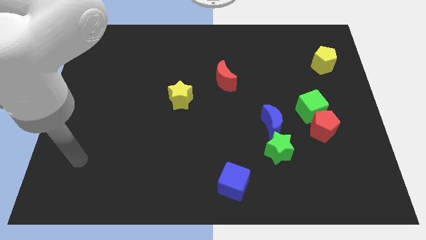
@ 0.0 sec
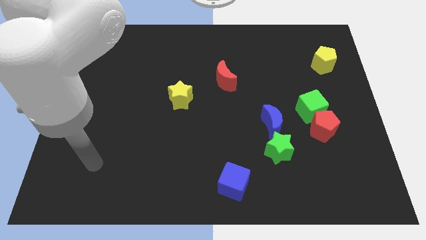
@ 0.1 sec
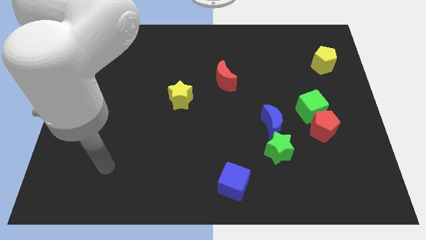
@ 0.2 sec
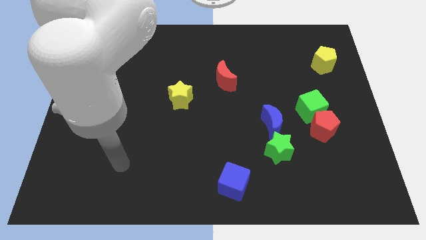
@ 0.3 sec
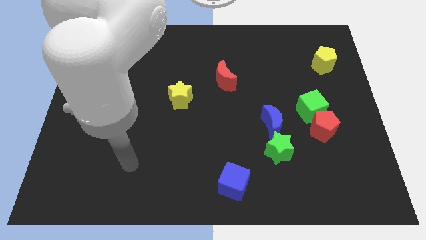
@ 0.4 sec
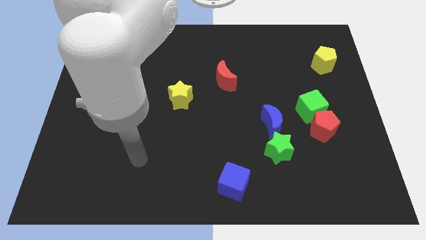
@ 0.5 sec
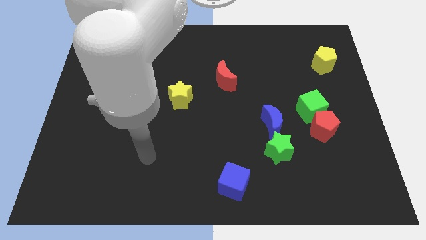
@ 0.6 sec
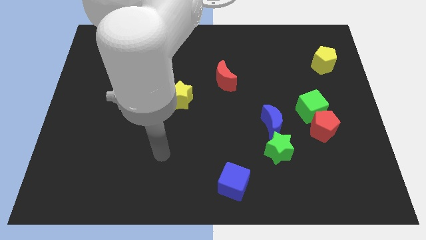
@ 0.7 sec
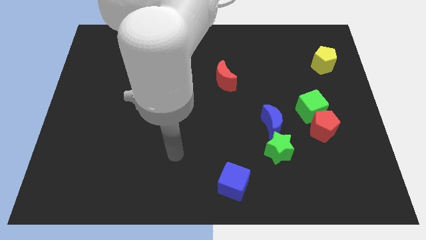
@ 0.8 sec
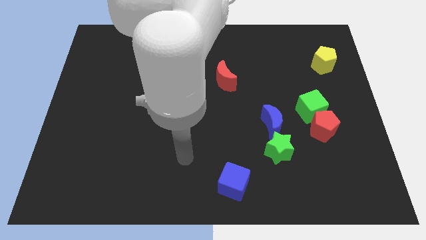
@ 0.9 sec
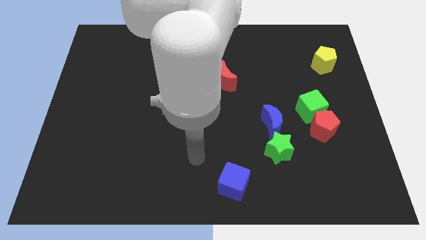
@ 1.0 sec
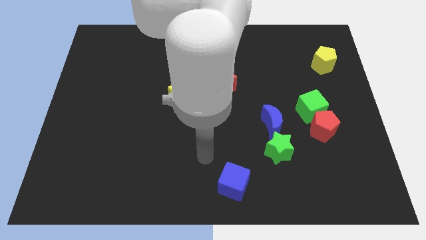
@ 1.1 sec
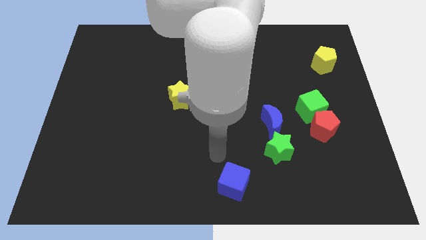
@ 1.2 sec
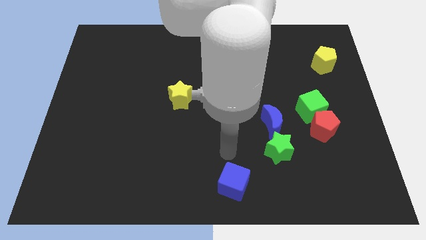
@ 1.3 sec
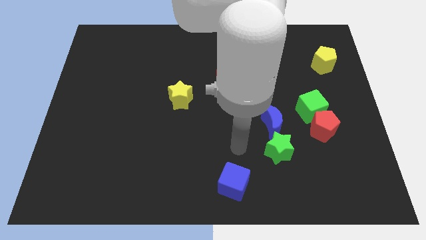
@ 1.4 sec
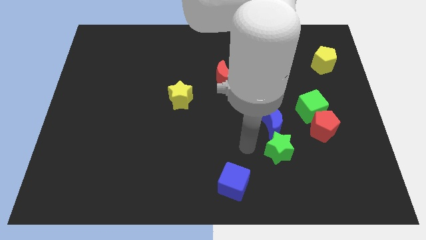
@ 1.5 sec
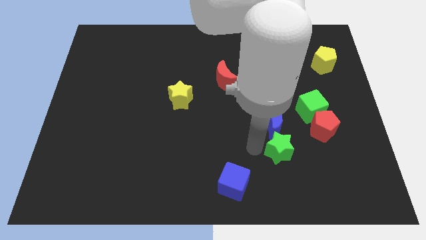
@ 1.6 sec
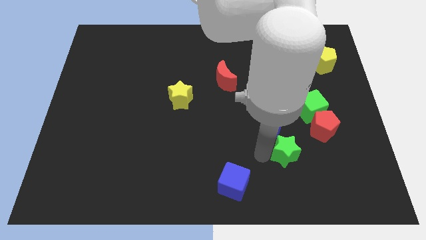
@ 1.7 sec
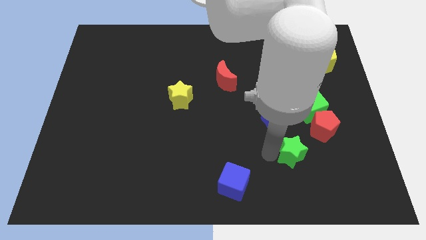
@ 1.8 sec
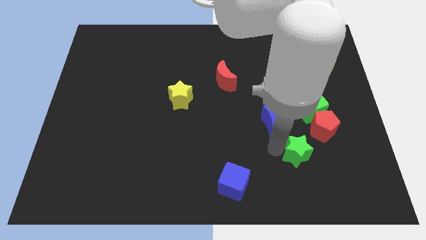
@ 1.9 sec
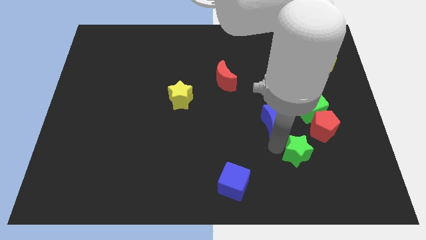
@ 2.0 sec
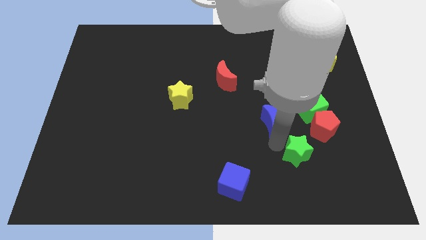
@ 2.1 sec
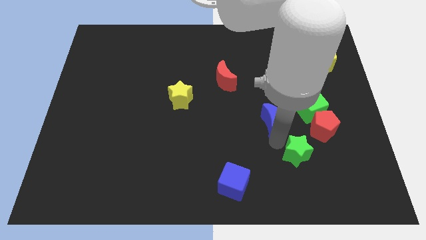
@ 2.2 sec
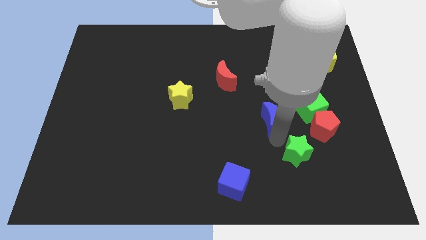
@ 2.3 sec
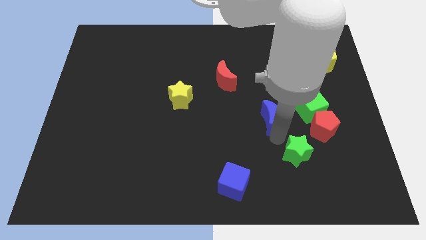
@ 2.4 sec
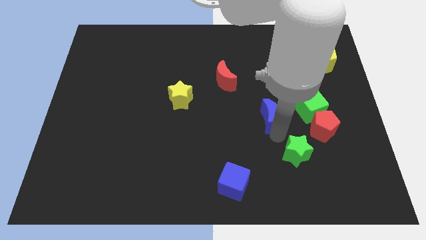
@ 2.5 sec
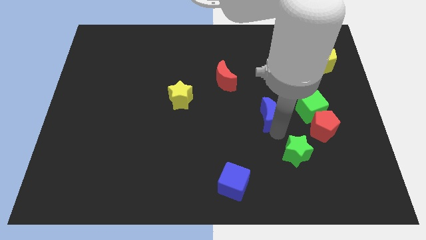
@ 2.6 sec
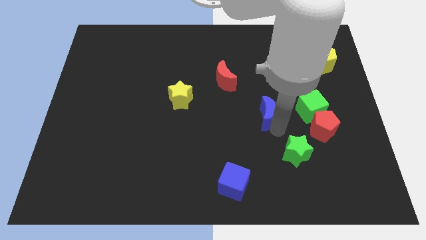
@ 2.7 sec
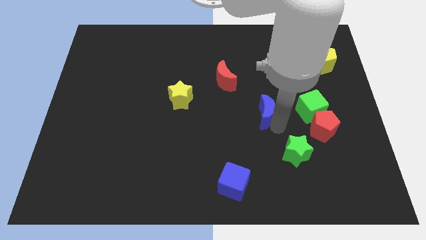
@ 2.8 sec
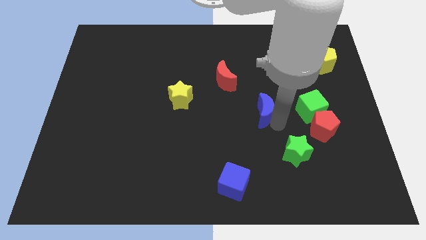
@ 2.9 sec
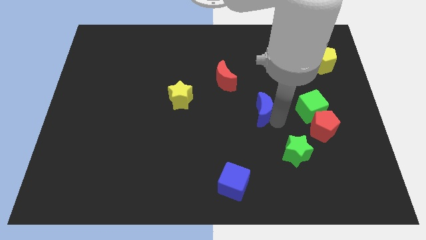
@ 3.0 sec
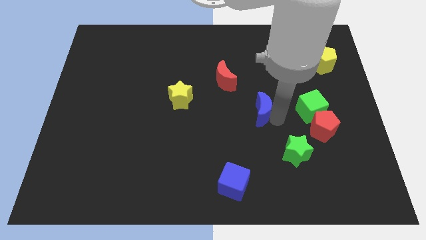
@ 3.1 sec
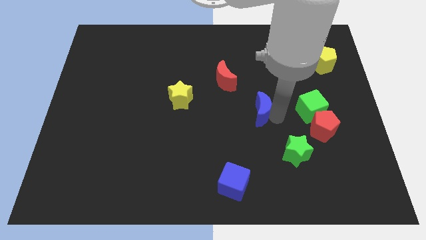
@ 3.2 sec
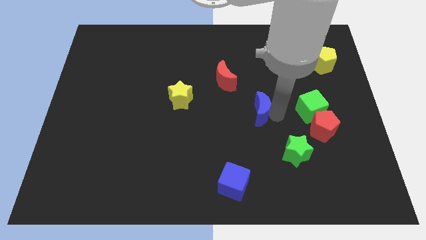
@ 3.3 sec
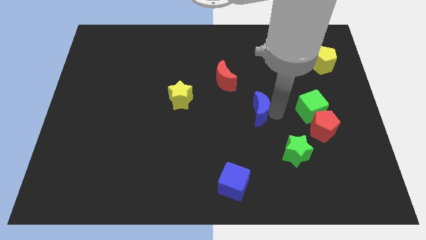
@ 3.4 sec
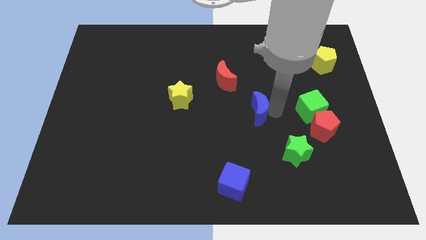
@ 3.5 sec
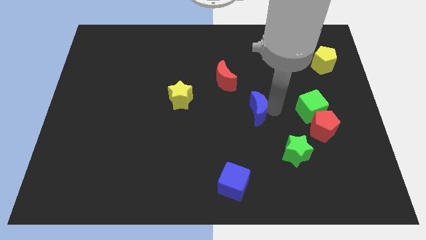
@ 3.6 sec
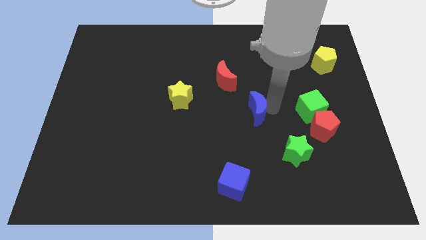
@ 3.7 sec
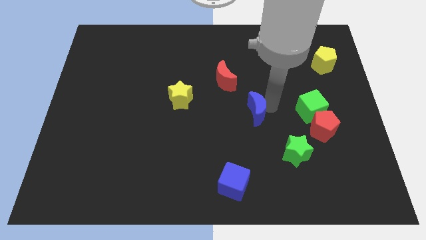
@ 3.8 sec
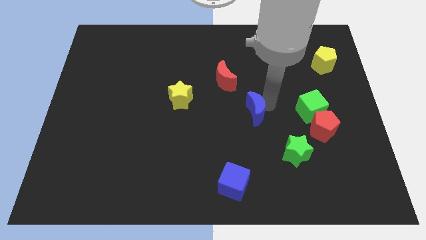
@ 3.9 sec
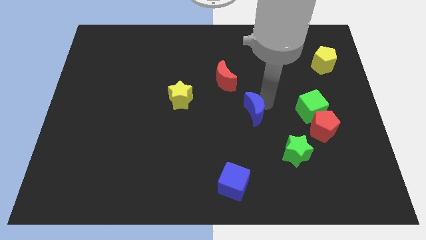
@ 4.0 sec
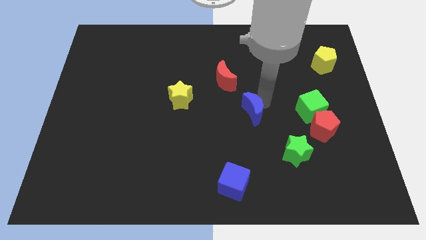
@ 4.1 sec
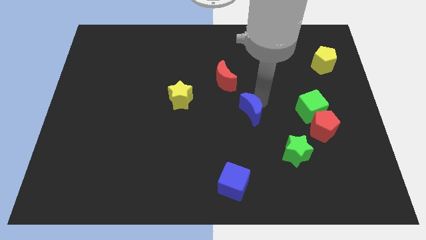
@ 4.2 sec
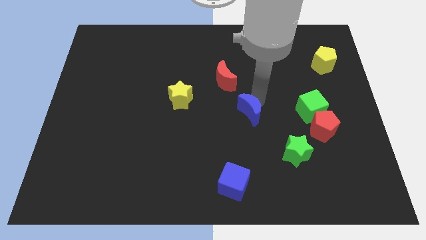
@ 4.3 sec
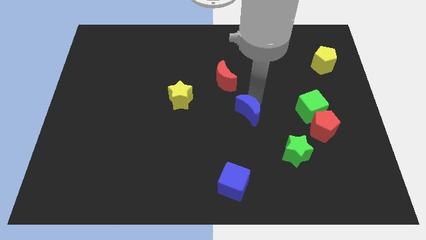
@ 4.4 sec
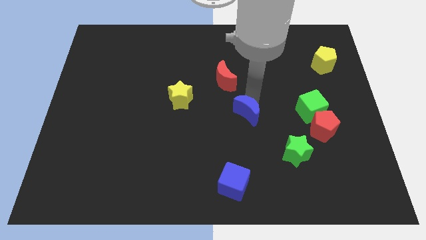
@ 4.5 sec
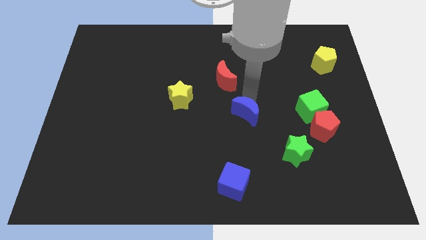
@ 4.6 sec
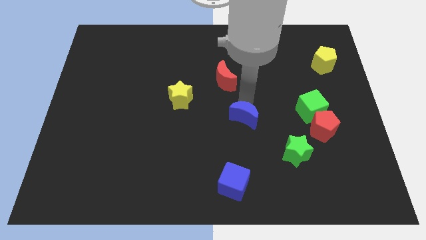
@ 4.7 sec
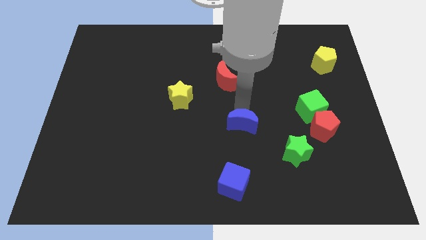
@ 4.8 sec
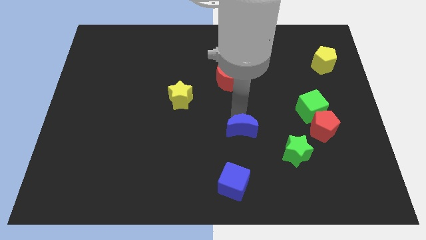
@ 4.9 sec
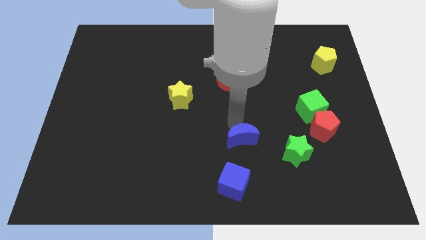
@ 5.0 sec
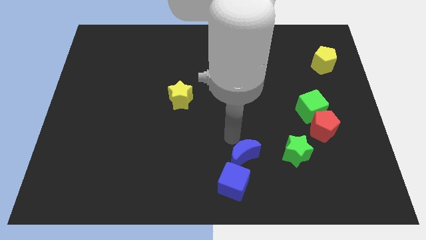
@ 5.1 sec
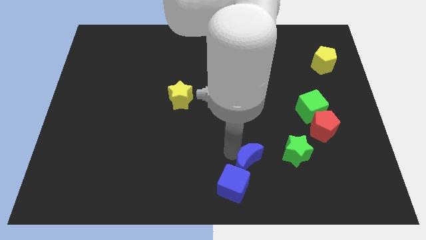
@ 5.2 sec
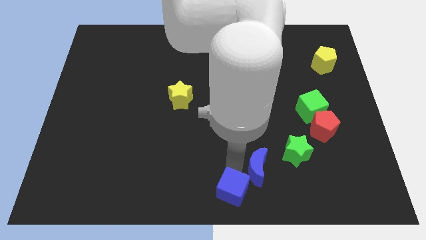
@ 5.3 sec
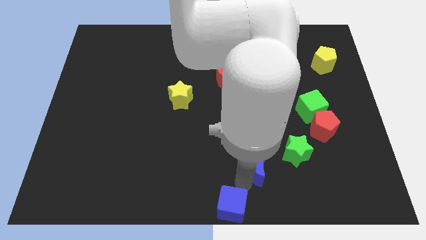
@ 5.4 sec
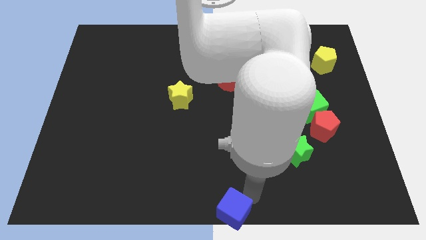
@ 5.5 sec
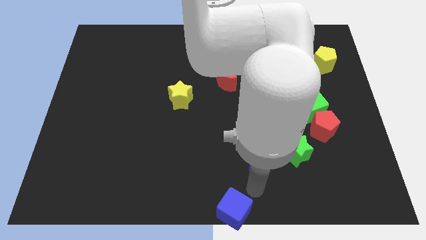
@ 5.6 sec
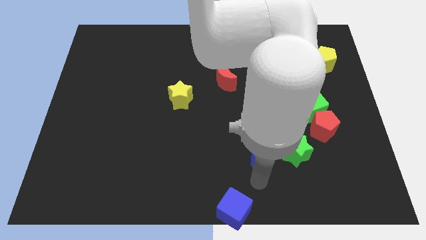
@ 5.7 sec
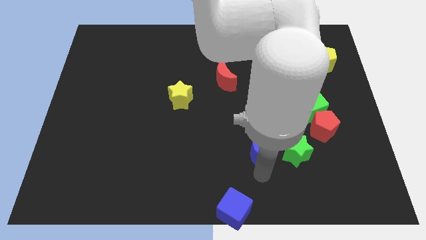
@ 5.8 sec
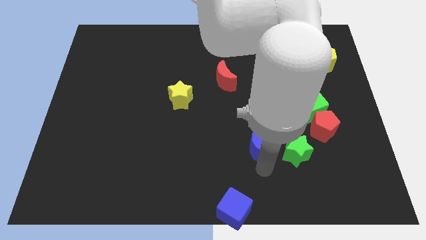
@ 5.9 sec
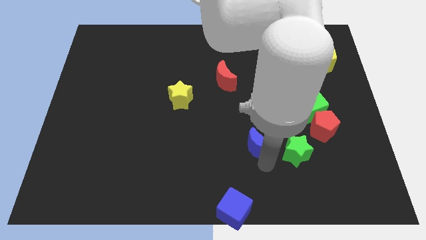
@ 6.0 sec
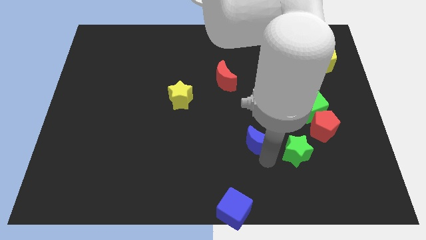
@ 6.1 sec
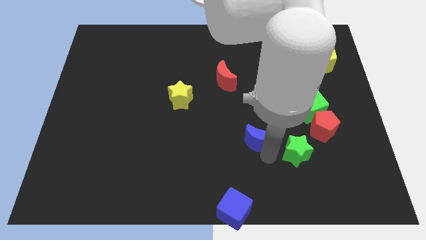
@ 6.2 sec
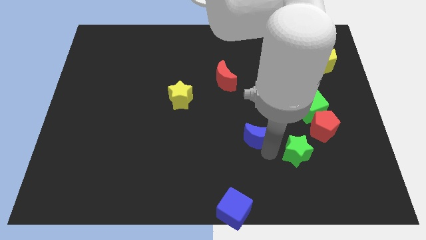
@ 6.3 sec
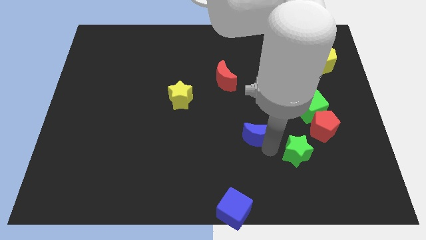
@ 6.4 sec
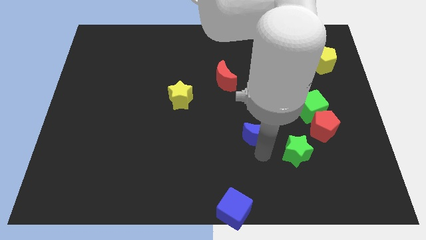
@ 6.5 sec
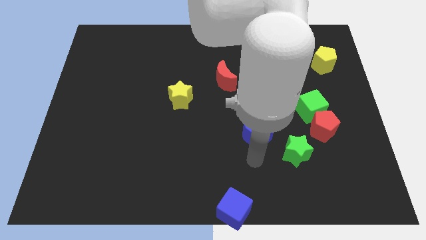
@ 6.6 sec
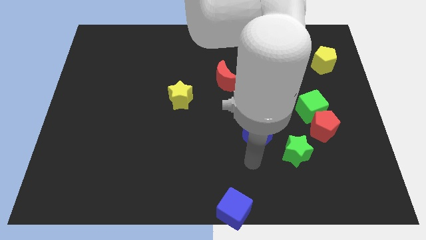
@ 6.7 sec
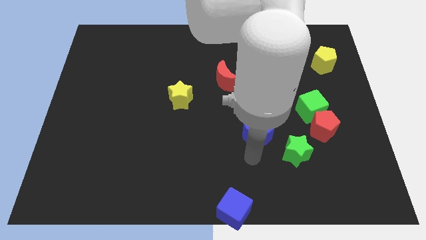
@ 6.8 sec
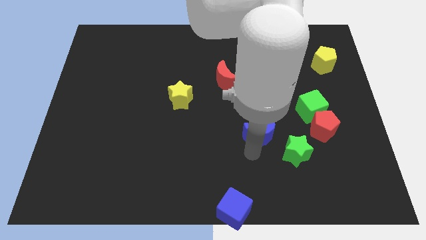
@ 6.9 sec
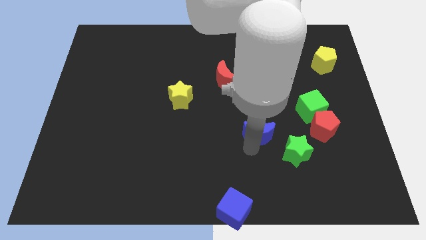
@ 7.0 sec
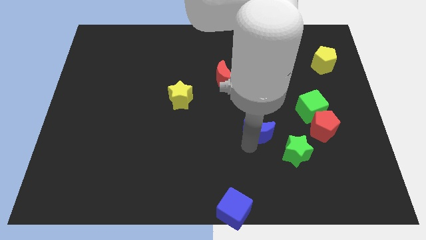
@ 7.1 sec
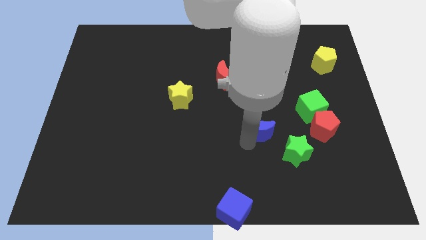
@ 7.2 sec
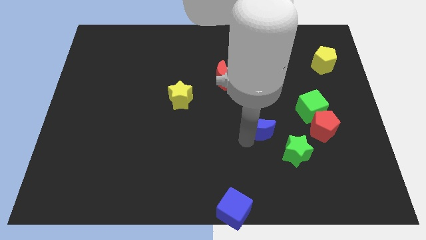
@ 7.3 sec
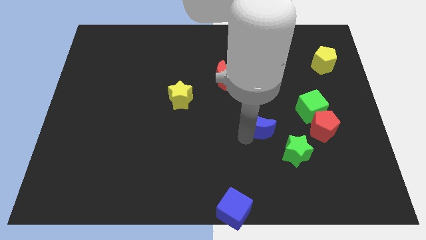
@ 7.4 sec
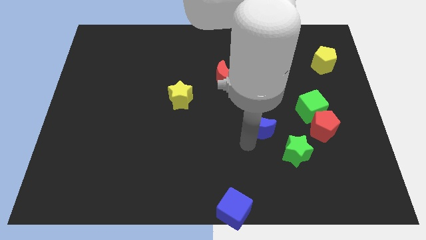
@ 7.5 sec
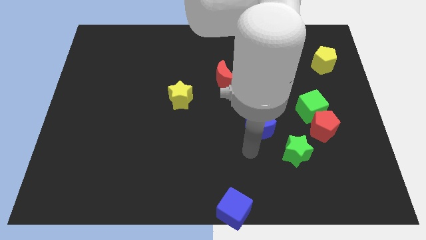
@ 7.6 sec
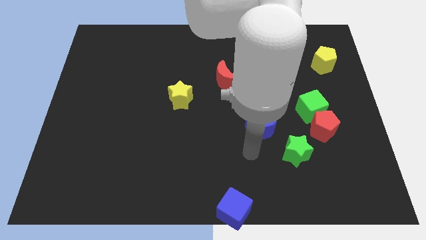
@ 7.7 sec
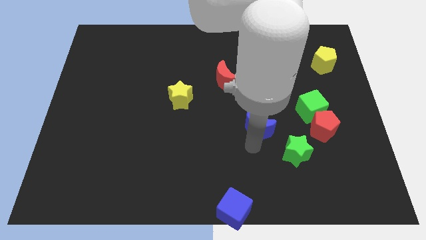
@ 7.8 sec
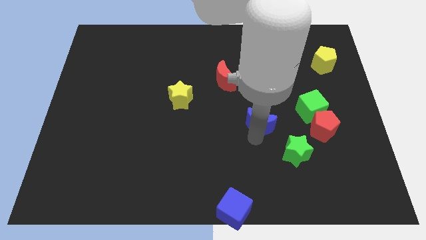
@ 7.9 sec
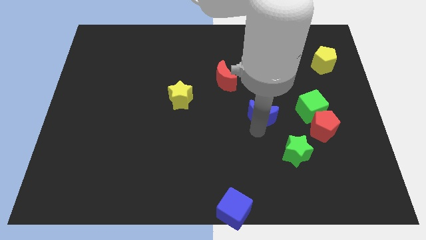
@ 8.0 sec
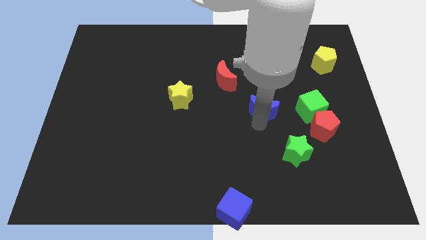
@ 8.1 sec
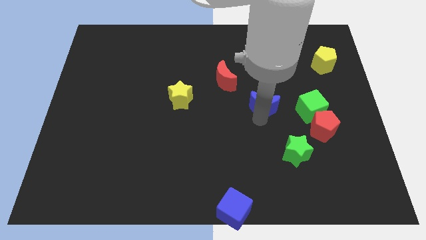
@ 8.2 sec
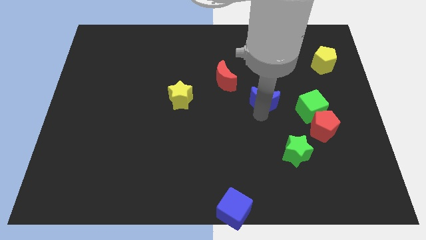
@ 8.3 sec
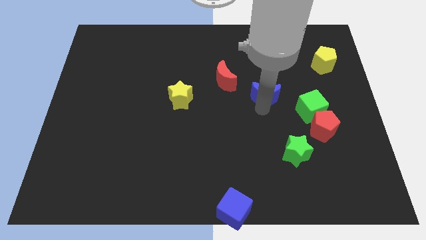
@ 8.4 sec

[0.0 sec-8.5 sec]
slightly move the blue moon up
